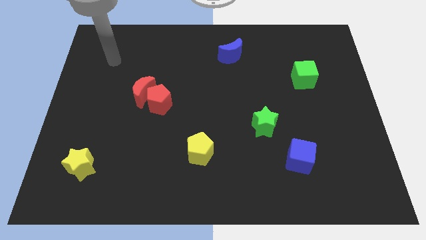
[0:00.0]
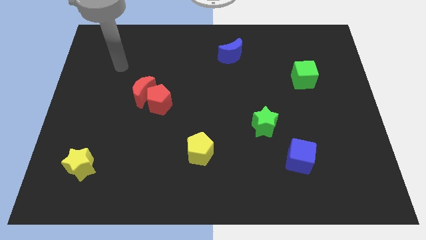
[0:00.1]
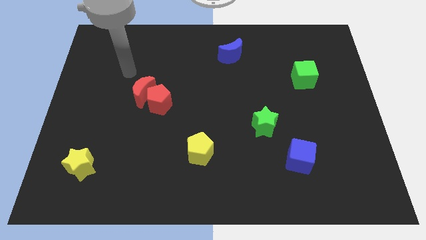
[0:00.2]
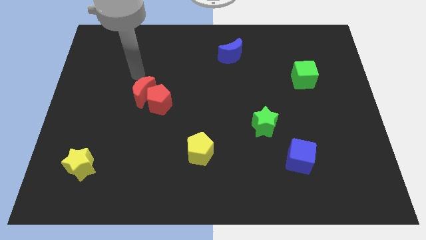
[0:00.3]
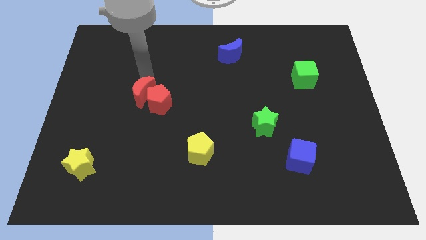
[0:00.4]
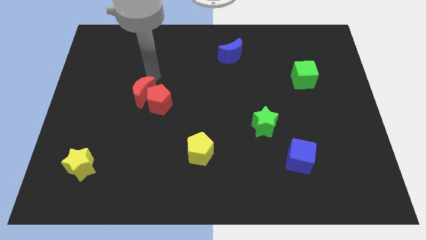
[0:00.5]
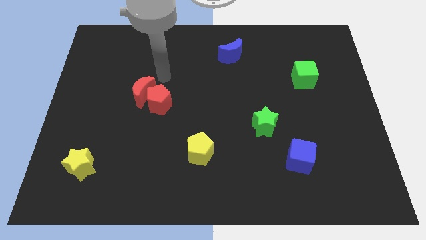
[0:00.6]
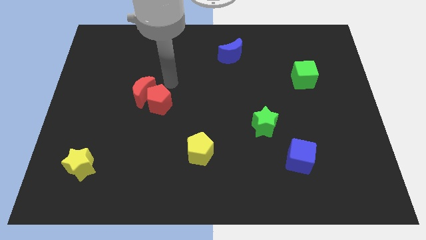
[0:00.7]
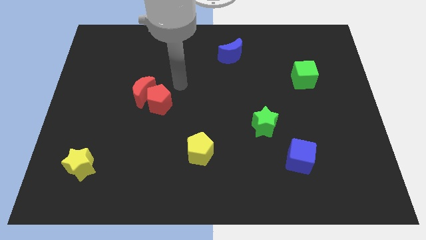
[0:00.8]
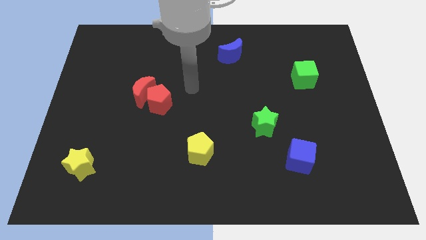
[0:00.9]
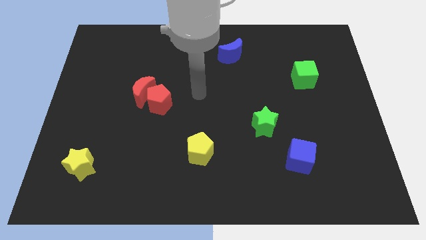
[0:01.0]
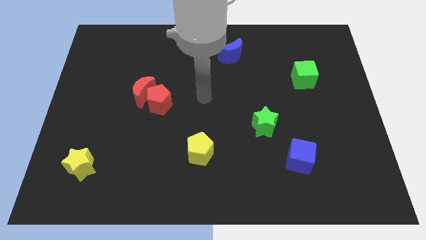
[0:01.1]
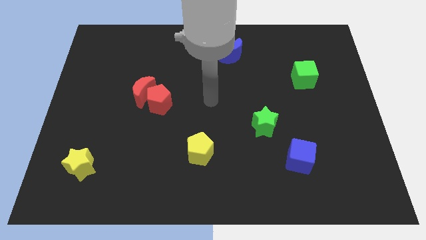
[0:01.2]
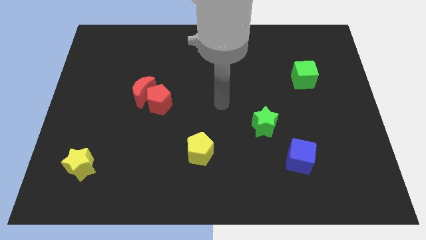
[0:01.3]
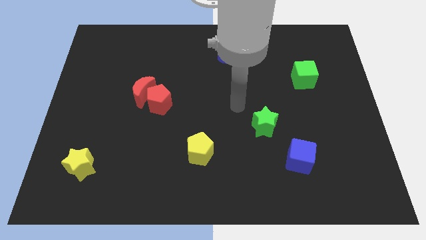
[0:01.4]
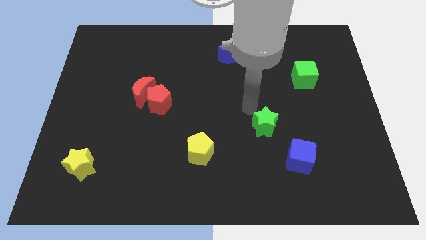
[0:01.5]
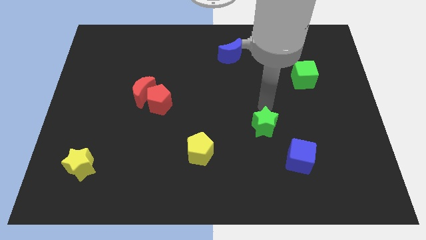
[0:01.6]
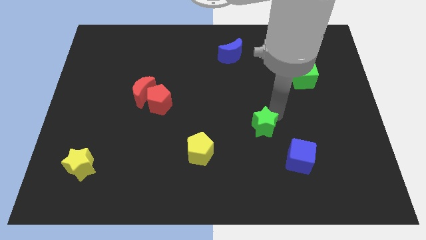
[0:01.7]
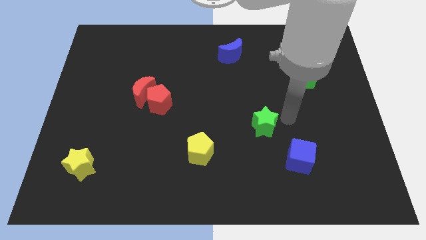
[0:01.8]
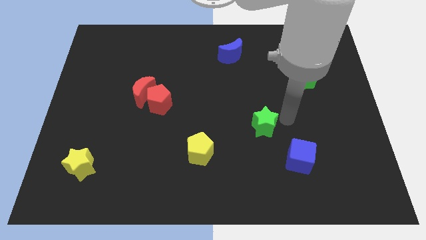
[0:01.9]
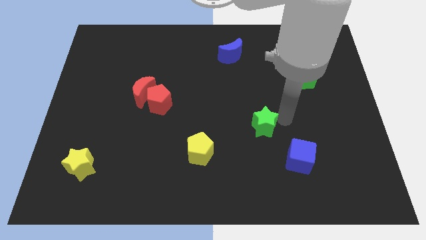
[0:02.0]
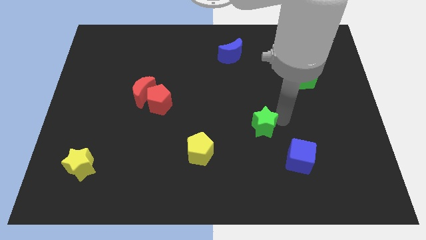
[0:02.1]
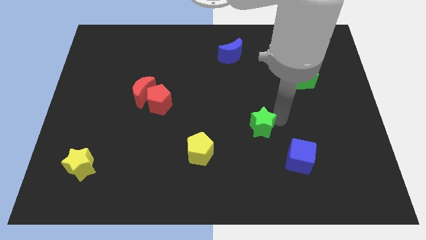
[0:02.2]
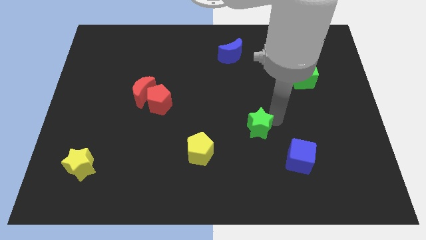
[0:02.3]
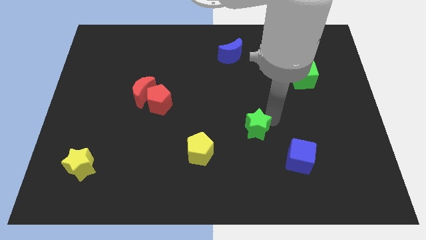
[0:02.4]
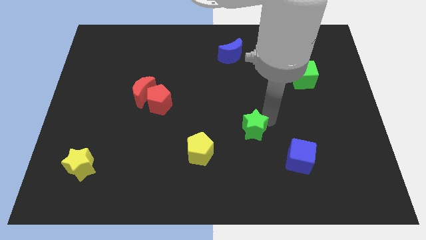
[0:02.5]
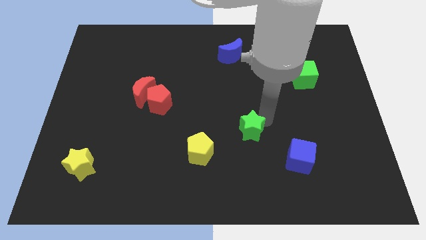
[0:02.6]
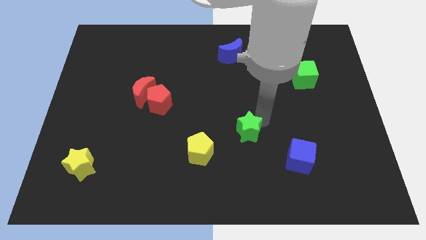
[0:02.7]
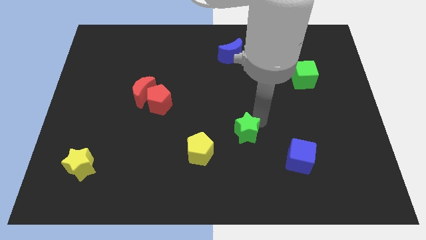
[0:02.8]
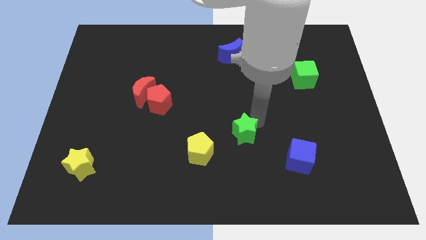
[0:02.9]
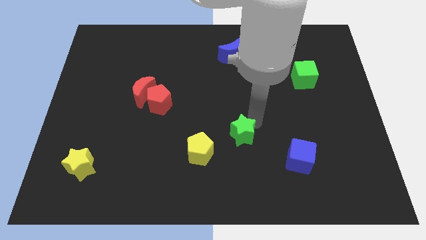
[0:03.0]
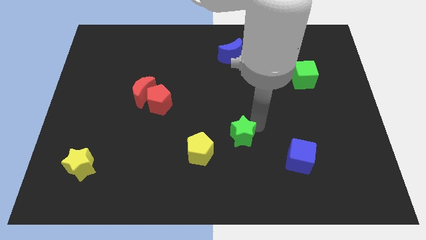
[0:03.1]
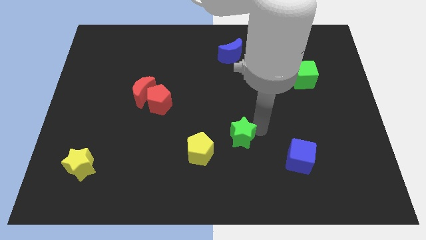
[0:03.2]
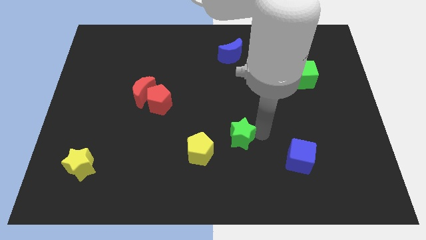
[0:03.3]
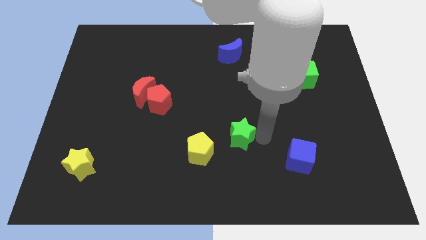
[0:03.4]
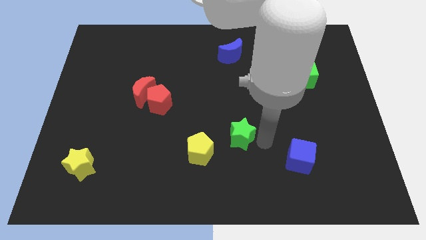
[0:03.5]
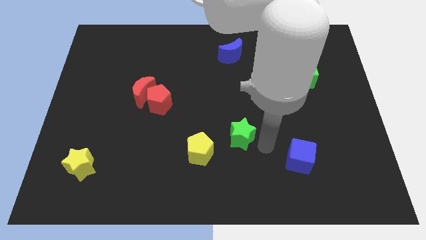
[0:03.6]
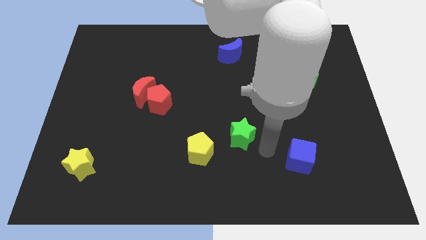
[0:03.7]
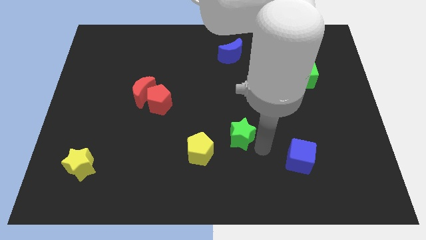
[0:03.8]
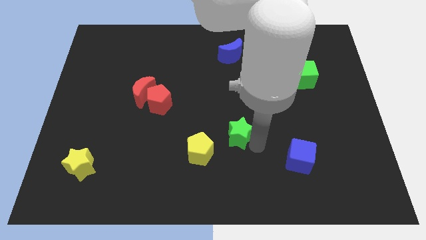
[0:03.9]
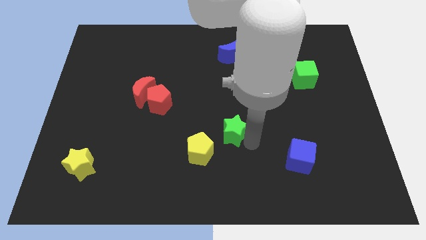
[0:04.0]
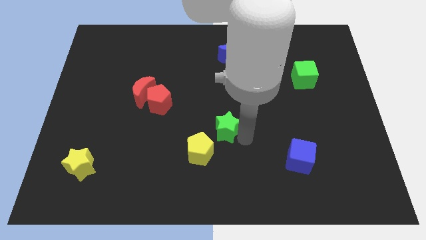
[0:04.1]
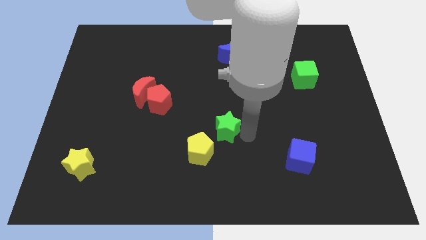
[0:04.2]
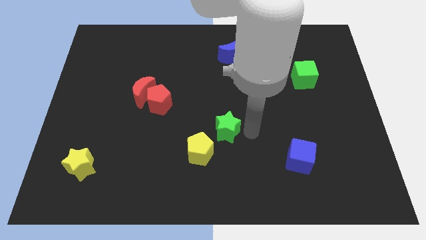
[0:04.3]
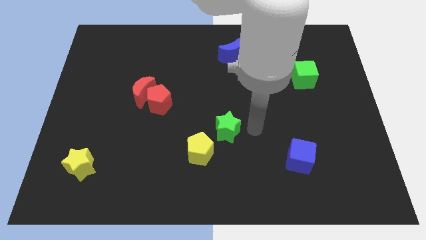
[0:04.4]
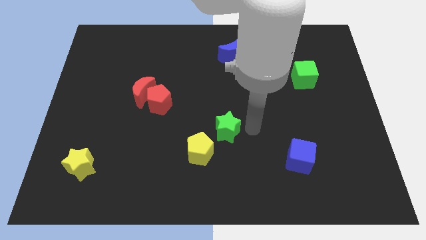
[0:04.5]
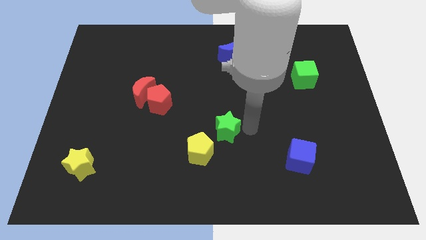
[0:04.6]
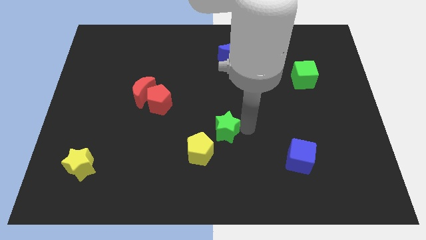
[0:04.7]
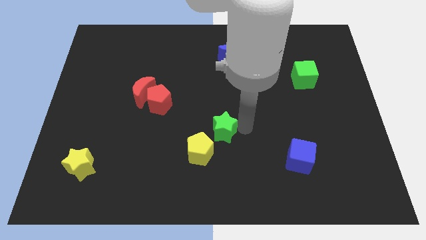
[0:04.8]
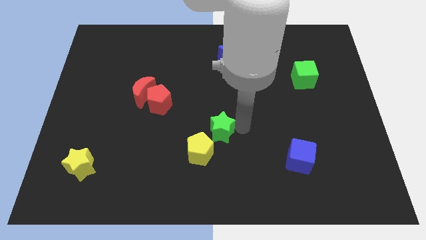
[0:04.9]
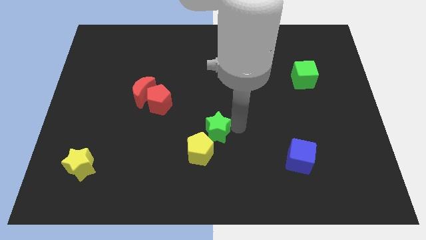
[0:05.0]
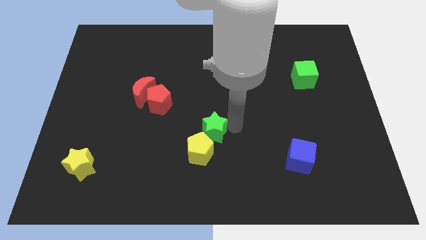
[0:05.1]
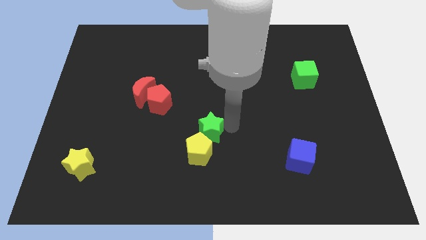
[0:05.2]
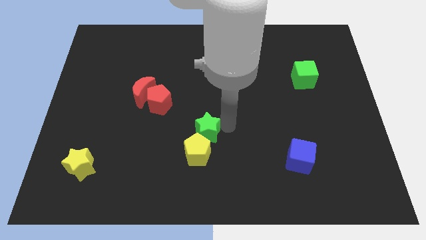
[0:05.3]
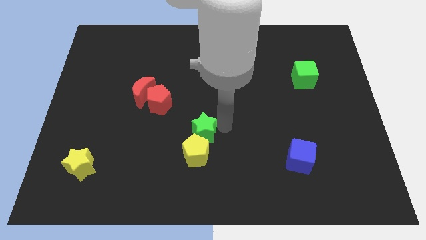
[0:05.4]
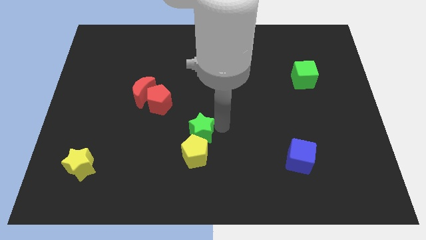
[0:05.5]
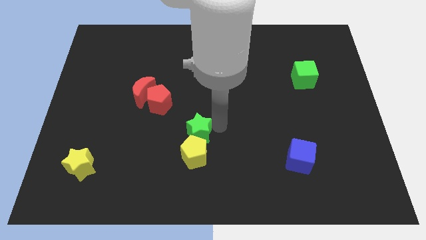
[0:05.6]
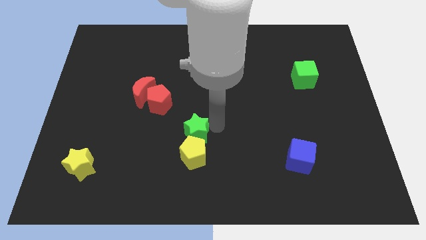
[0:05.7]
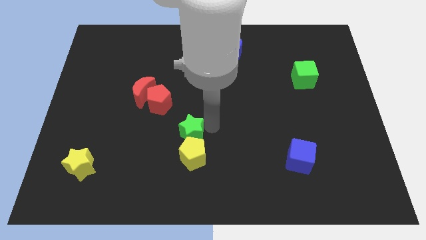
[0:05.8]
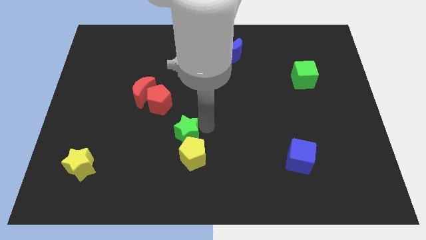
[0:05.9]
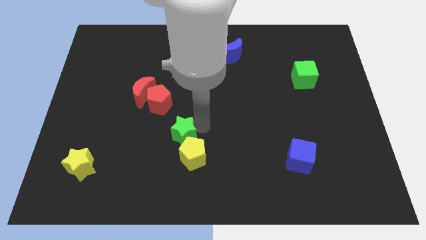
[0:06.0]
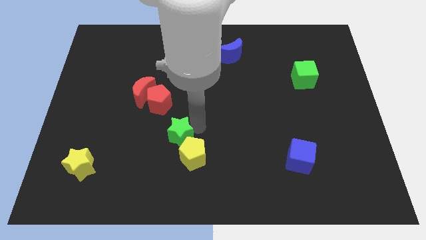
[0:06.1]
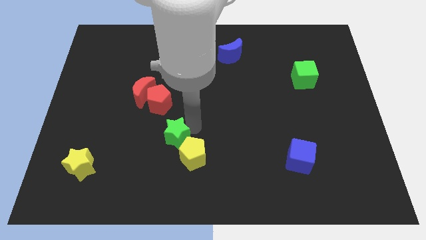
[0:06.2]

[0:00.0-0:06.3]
slide the green star to the left of the yellow pentagon

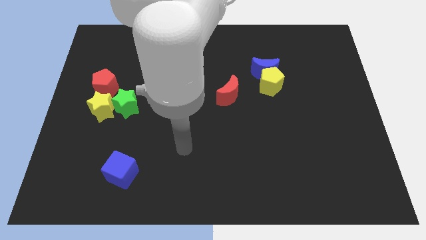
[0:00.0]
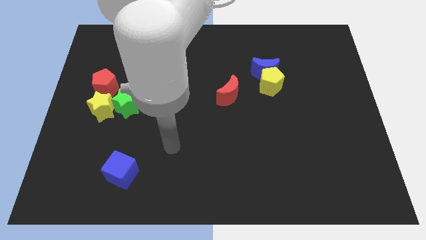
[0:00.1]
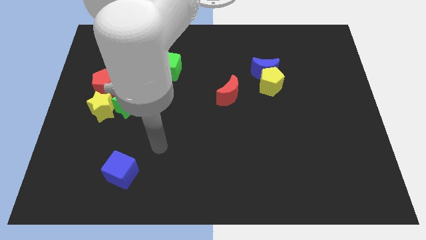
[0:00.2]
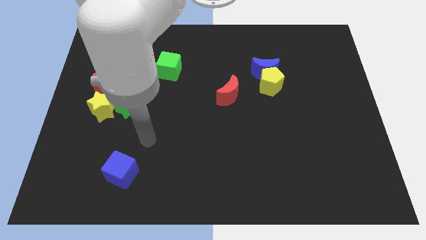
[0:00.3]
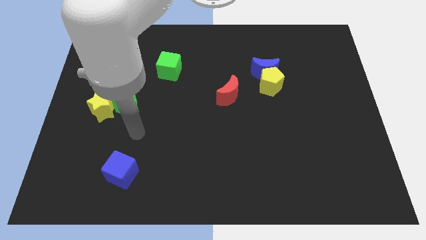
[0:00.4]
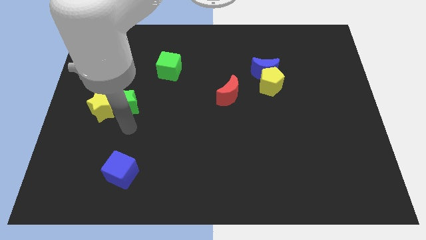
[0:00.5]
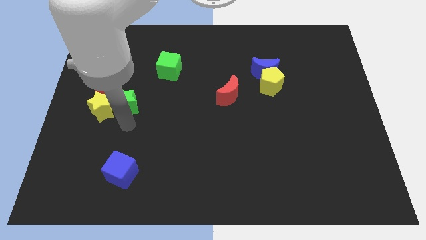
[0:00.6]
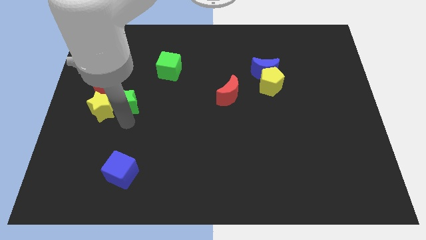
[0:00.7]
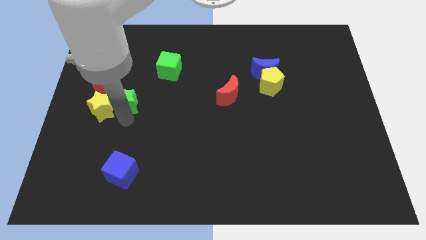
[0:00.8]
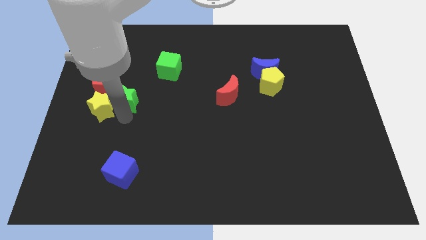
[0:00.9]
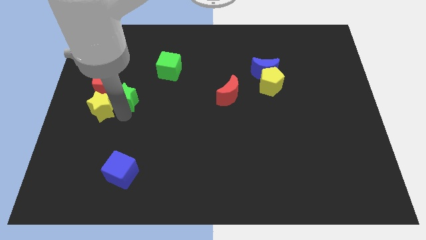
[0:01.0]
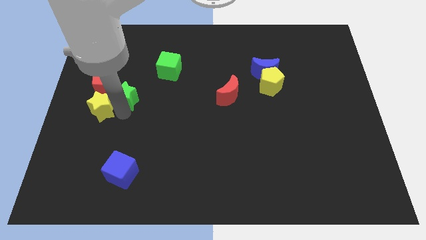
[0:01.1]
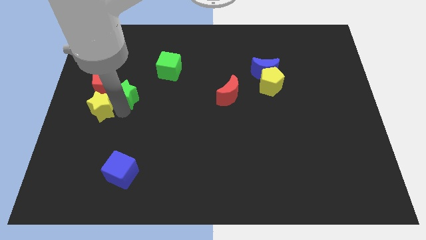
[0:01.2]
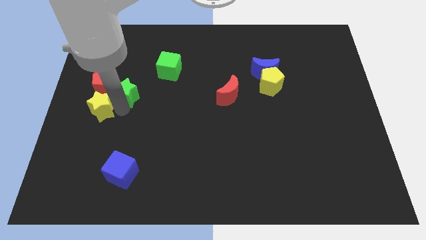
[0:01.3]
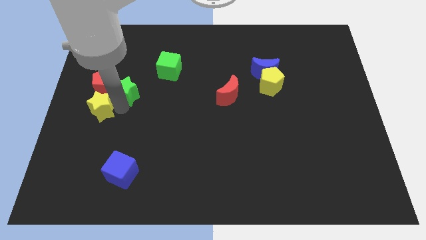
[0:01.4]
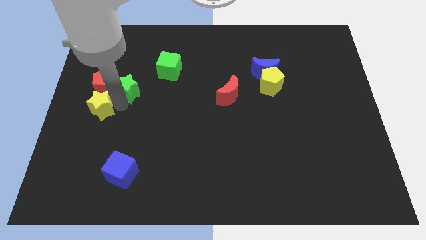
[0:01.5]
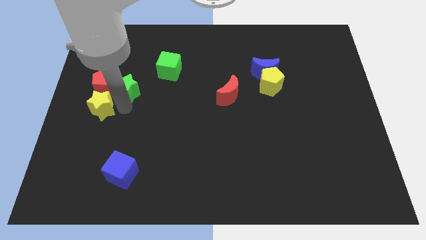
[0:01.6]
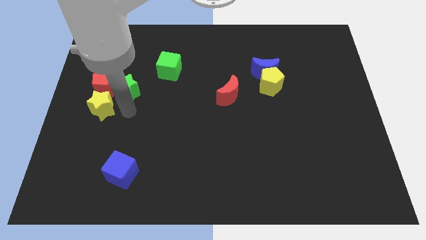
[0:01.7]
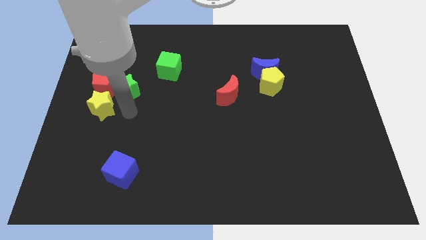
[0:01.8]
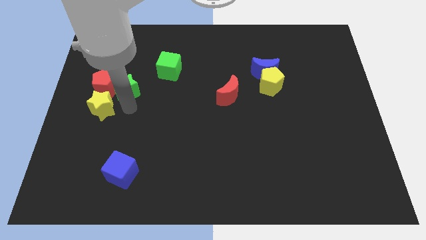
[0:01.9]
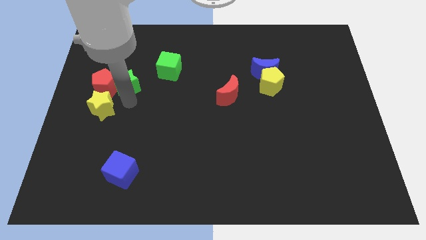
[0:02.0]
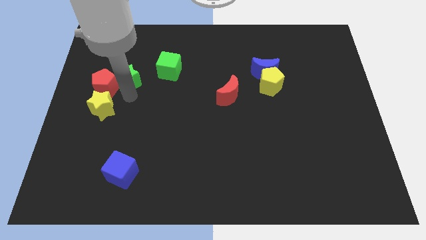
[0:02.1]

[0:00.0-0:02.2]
move the green star to the left of the green cube

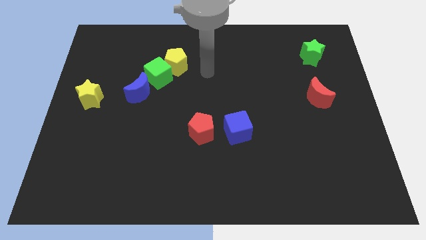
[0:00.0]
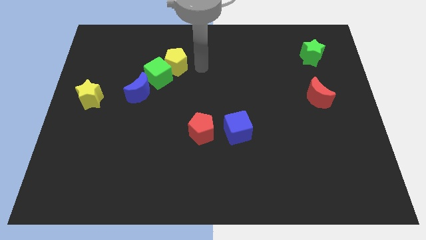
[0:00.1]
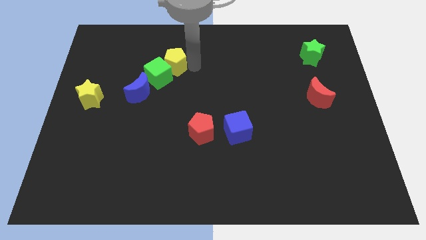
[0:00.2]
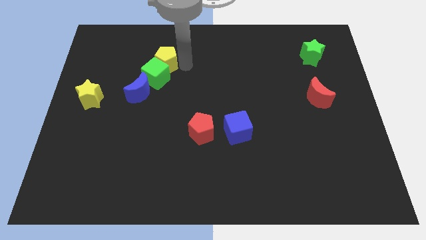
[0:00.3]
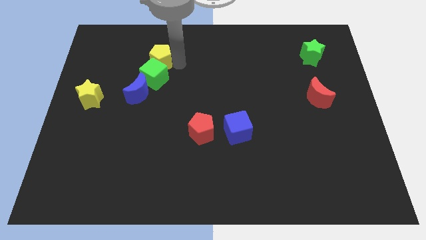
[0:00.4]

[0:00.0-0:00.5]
put the yellow pentagon above the blue moon
